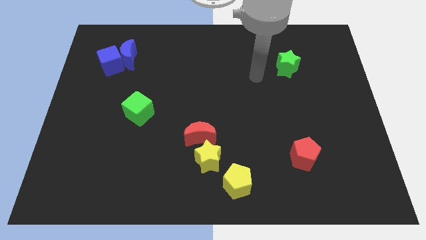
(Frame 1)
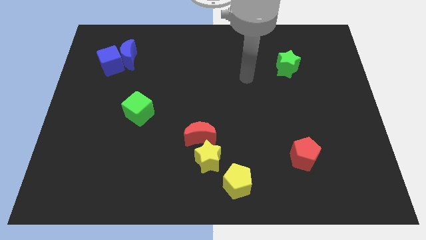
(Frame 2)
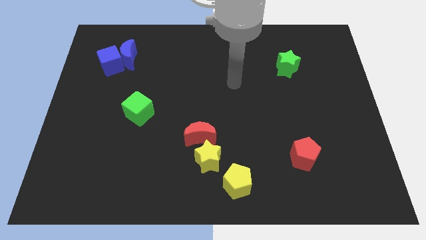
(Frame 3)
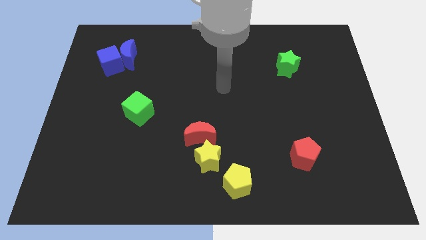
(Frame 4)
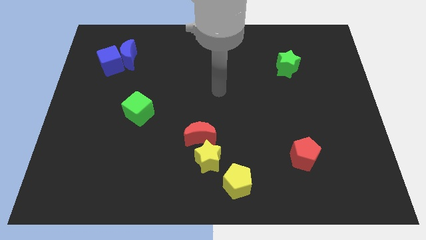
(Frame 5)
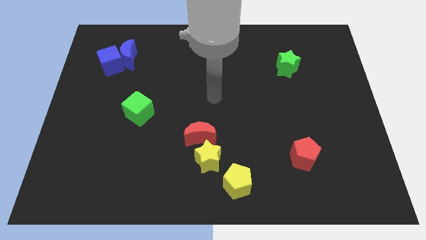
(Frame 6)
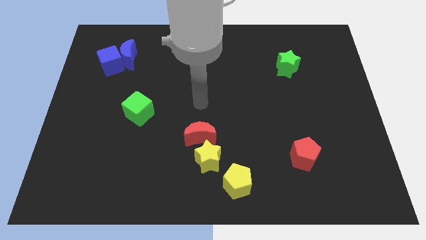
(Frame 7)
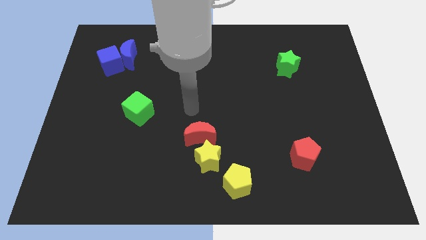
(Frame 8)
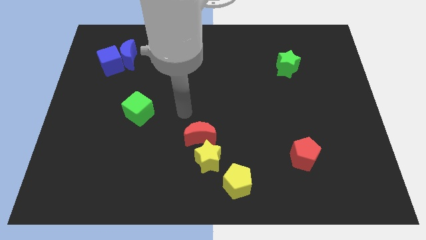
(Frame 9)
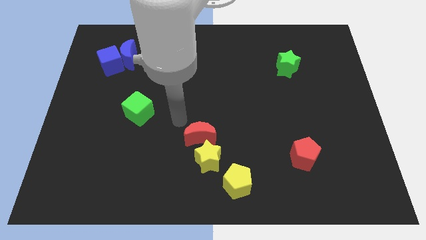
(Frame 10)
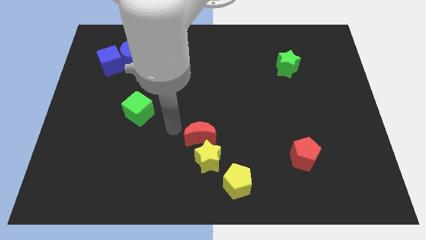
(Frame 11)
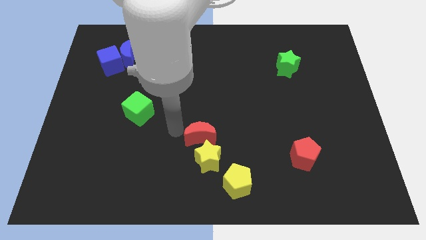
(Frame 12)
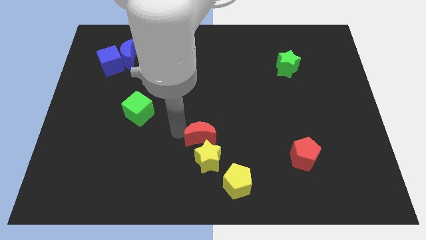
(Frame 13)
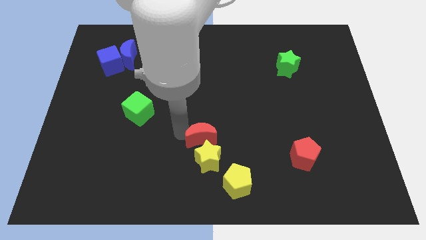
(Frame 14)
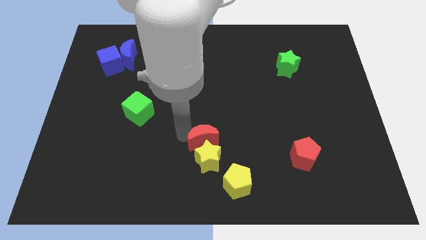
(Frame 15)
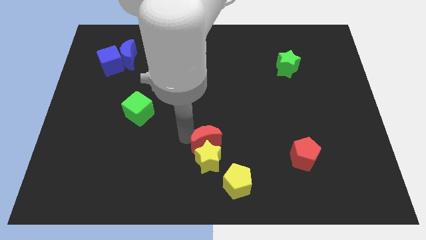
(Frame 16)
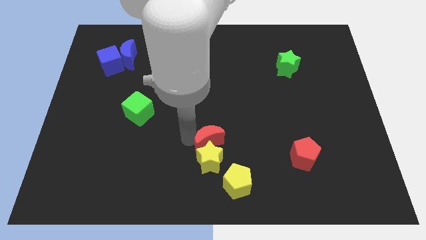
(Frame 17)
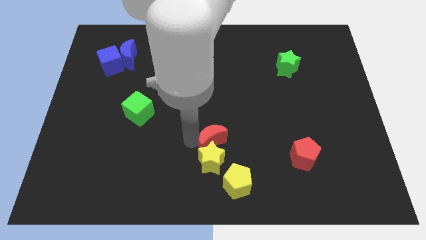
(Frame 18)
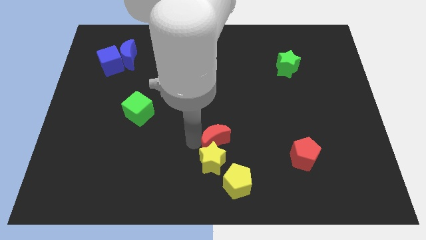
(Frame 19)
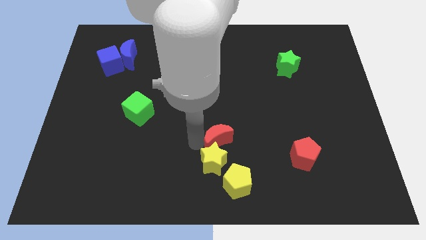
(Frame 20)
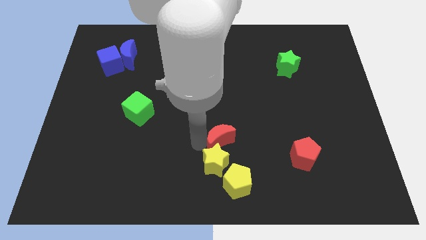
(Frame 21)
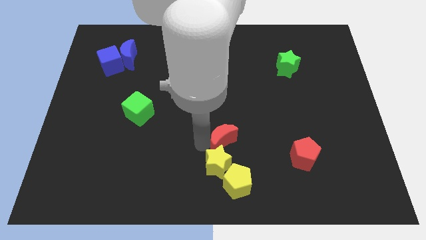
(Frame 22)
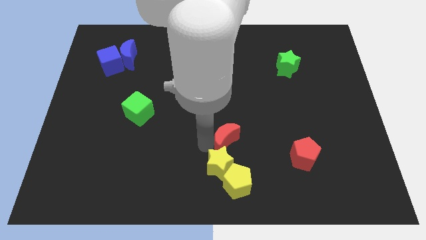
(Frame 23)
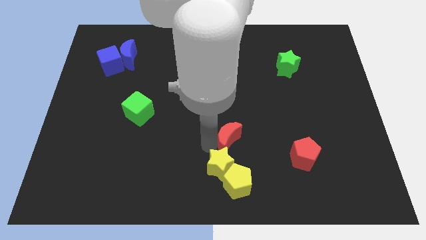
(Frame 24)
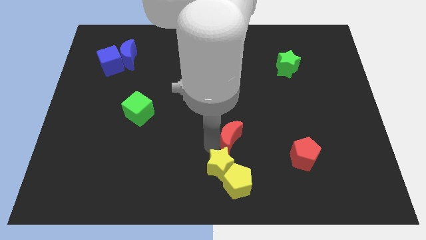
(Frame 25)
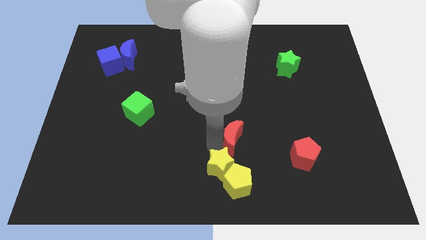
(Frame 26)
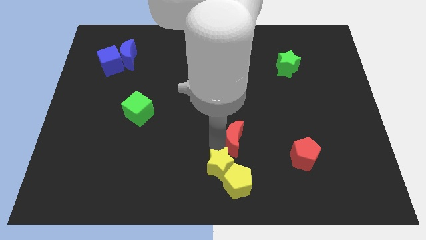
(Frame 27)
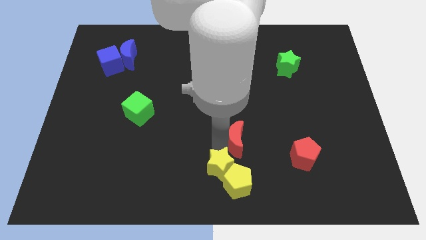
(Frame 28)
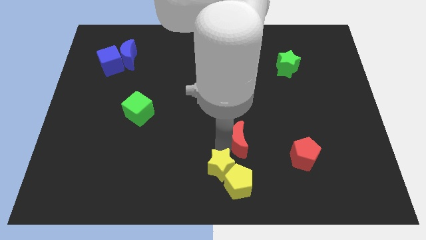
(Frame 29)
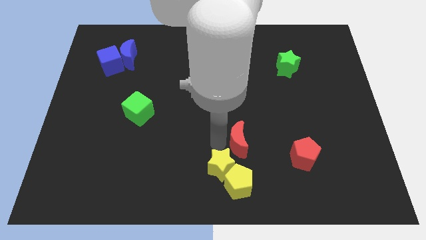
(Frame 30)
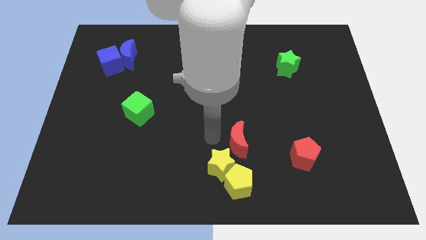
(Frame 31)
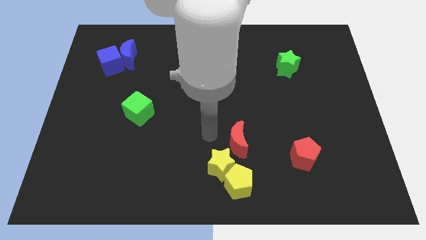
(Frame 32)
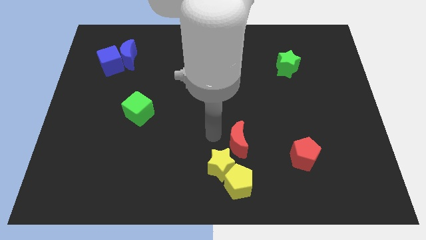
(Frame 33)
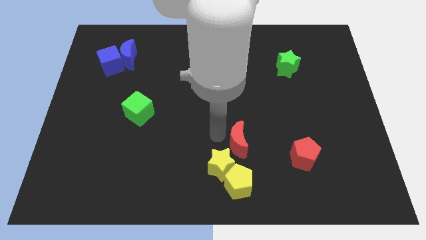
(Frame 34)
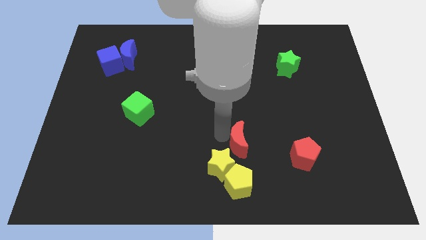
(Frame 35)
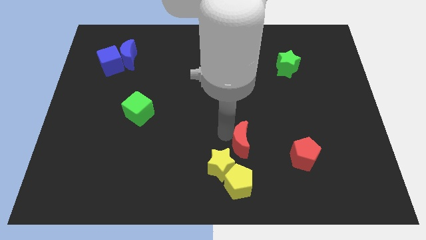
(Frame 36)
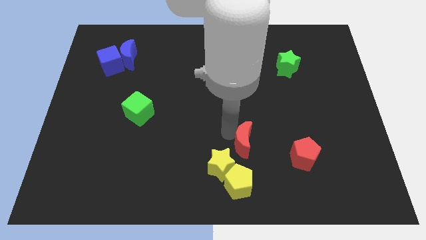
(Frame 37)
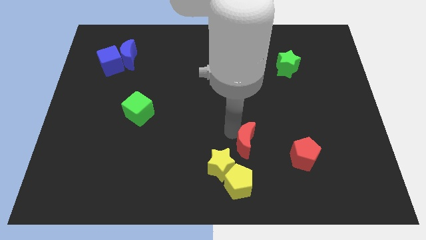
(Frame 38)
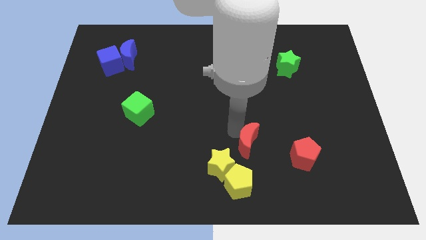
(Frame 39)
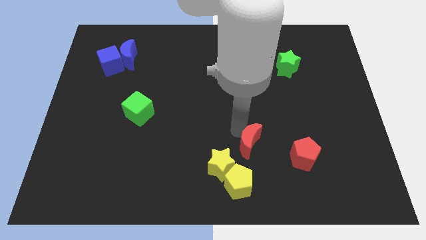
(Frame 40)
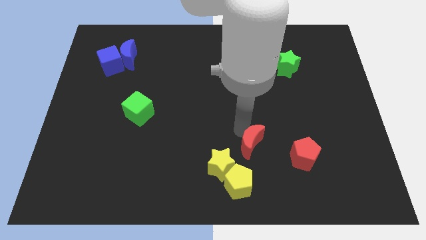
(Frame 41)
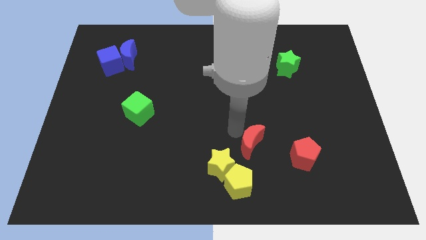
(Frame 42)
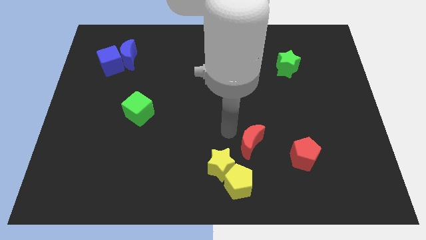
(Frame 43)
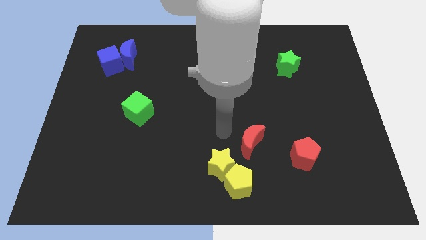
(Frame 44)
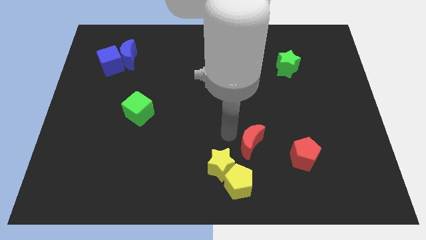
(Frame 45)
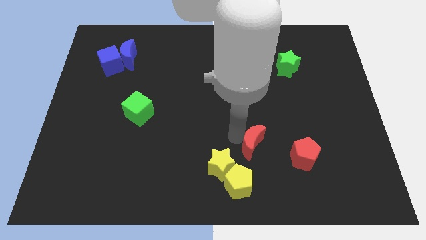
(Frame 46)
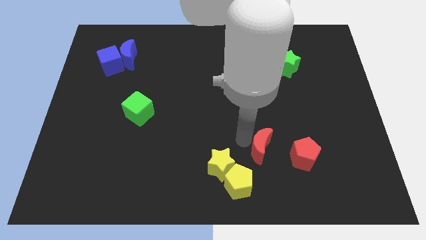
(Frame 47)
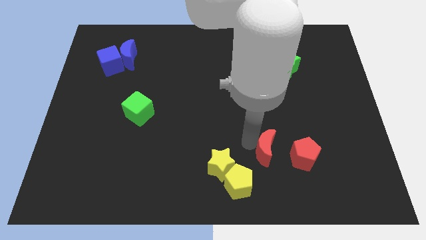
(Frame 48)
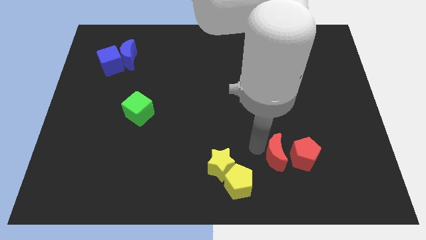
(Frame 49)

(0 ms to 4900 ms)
put the red moon to the red pentagon

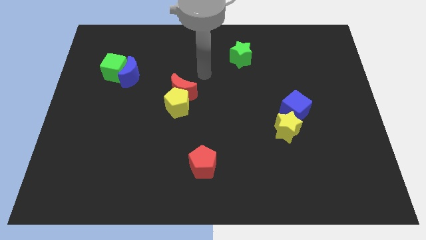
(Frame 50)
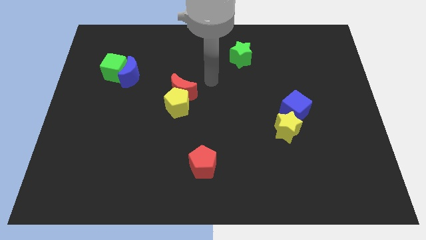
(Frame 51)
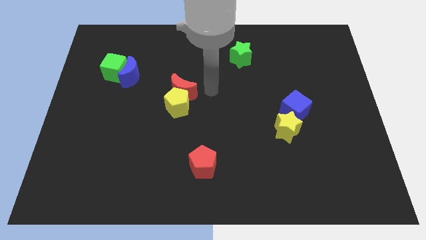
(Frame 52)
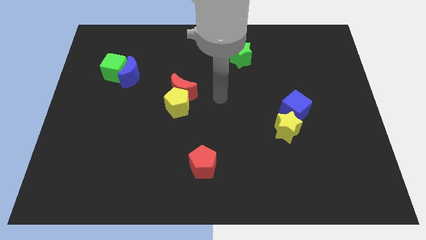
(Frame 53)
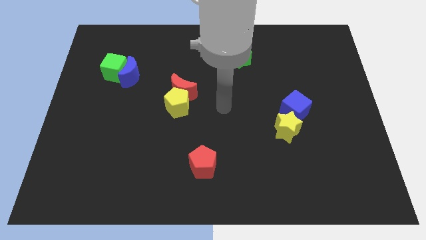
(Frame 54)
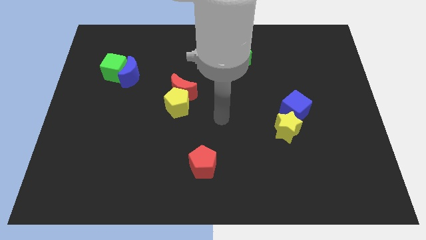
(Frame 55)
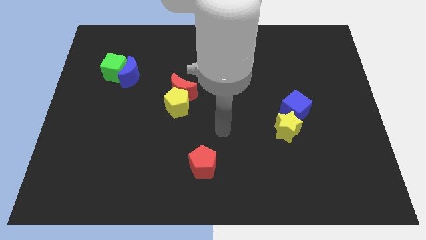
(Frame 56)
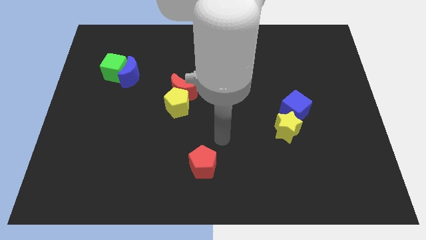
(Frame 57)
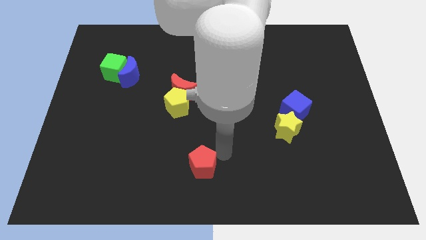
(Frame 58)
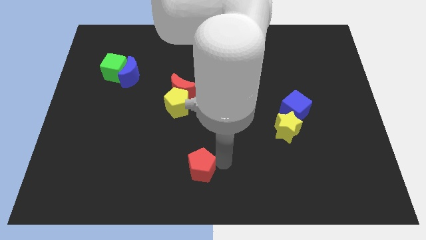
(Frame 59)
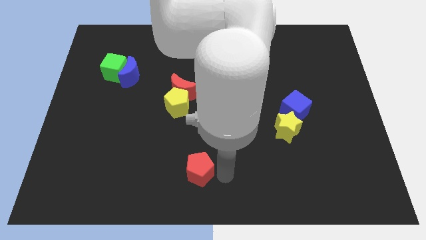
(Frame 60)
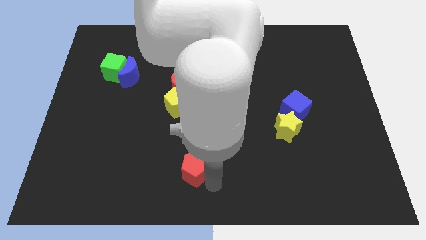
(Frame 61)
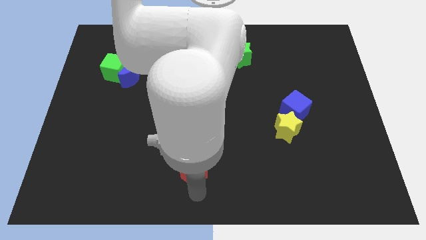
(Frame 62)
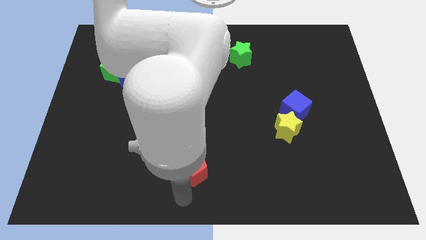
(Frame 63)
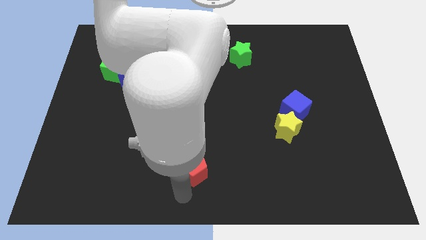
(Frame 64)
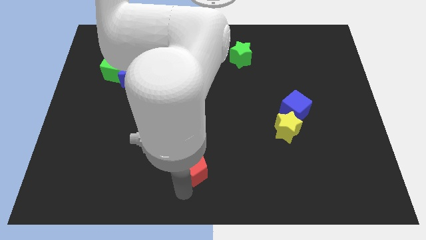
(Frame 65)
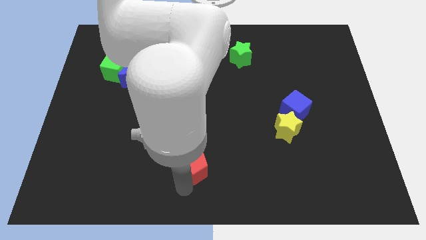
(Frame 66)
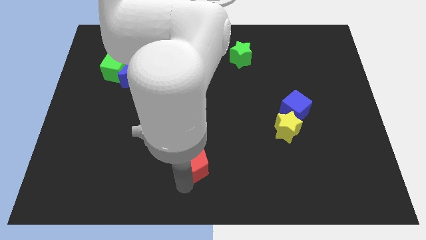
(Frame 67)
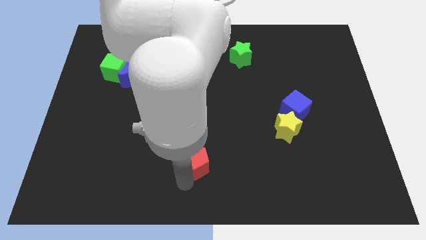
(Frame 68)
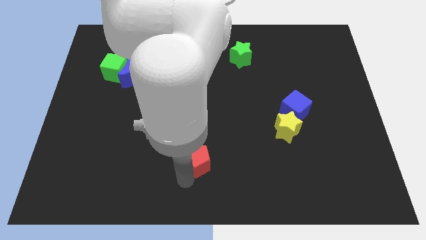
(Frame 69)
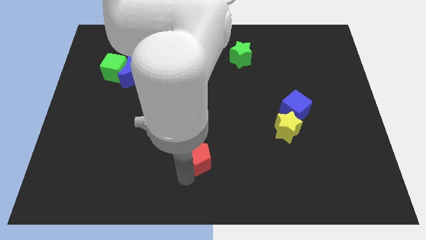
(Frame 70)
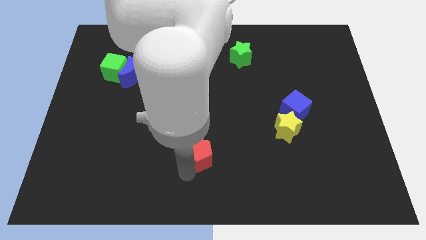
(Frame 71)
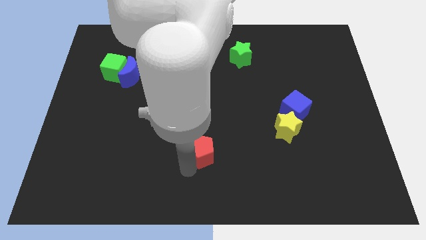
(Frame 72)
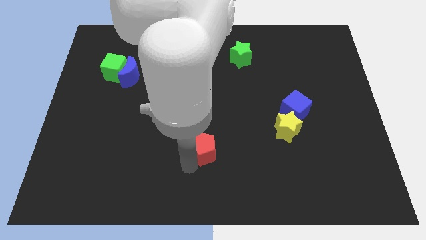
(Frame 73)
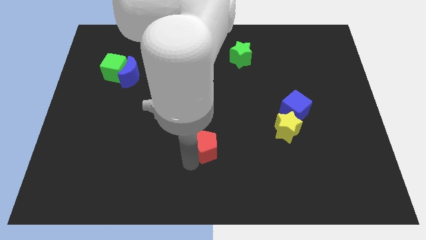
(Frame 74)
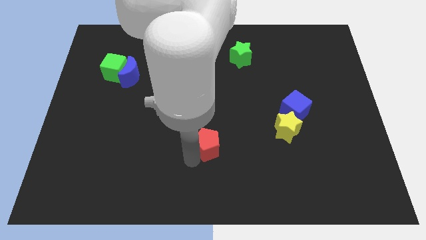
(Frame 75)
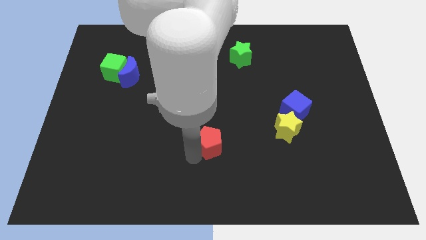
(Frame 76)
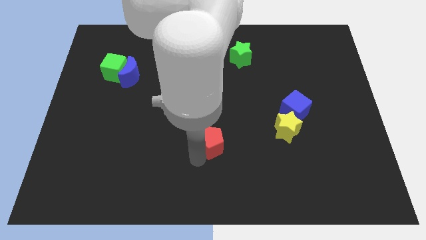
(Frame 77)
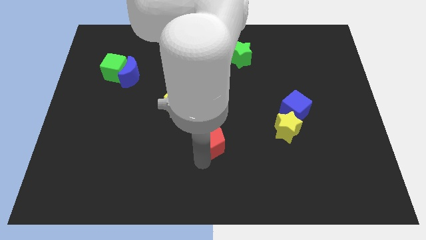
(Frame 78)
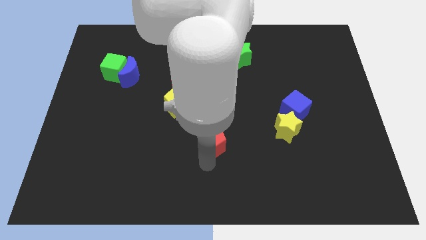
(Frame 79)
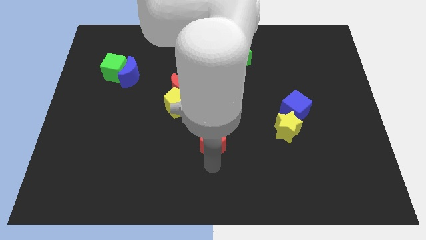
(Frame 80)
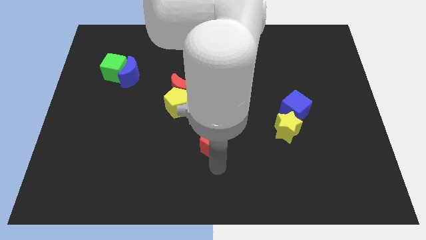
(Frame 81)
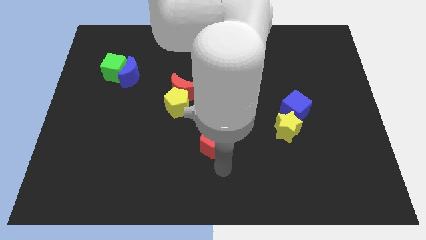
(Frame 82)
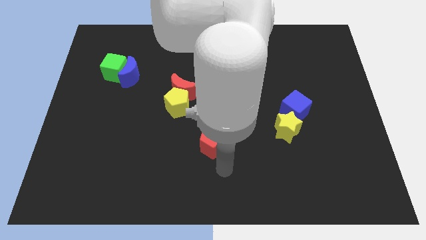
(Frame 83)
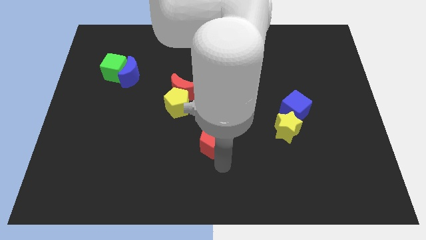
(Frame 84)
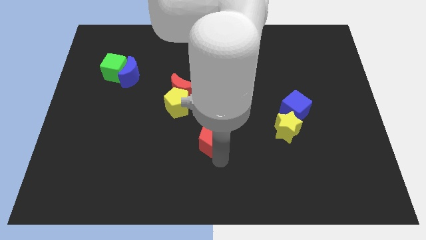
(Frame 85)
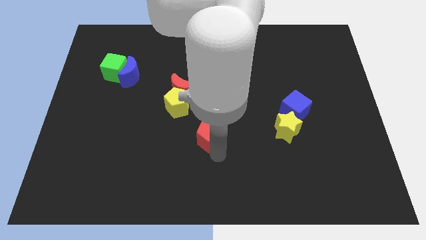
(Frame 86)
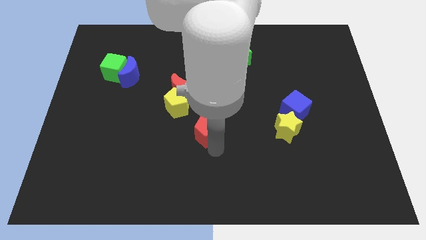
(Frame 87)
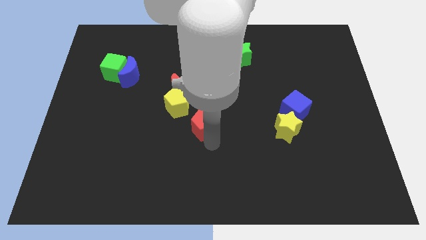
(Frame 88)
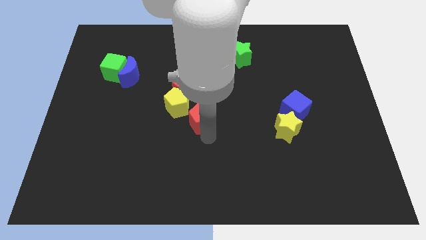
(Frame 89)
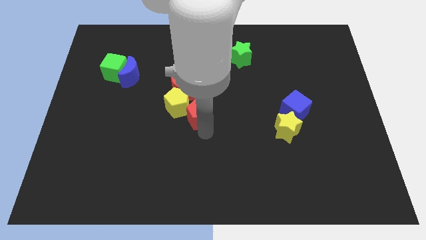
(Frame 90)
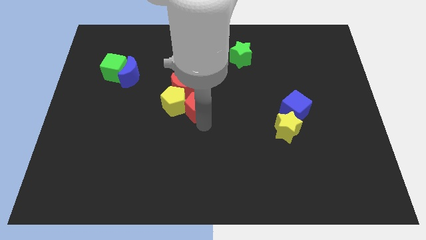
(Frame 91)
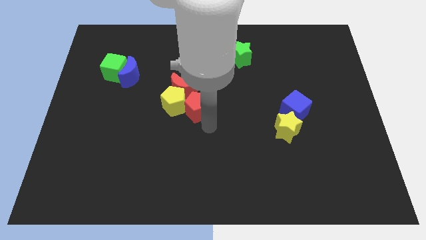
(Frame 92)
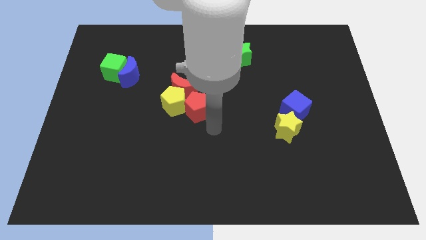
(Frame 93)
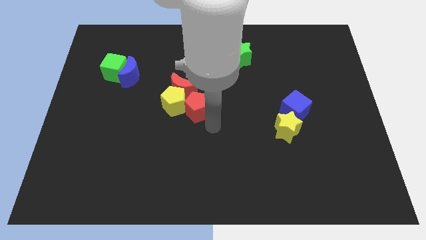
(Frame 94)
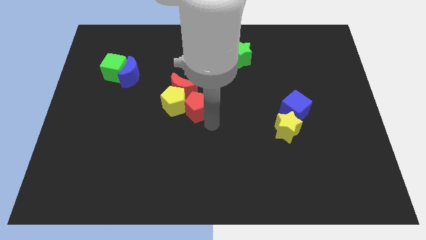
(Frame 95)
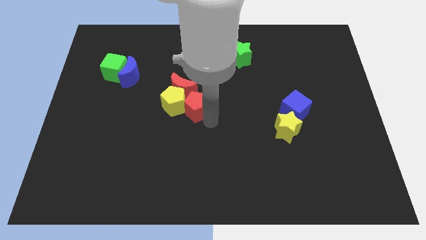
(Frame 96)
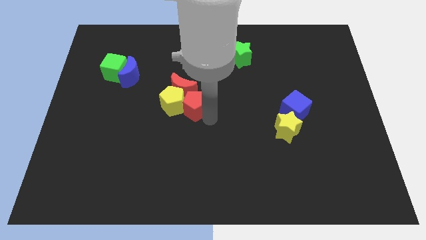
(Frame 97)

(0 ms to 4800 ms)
push the red pentagon close to the red moon
